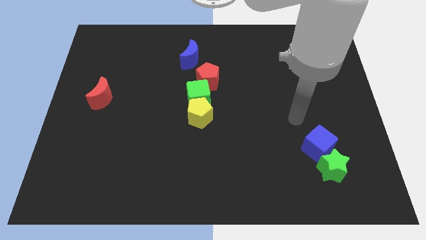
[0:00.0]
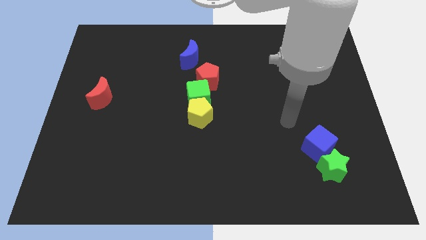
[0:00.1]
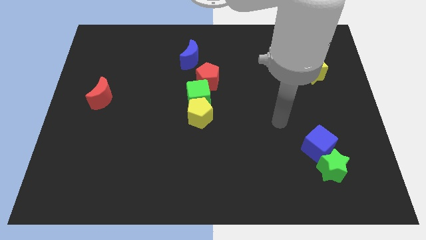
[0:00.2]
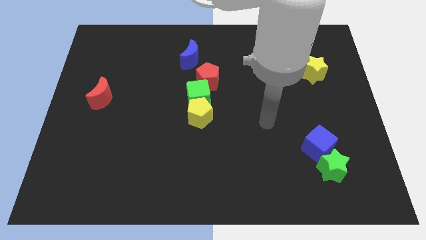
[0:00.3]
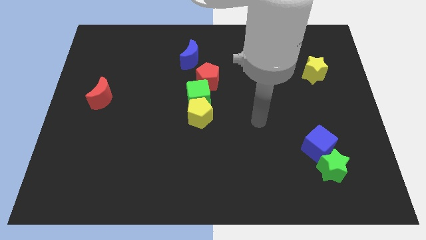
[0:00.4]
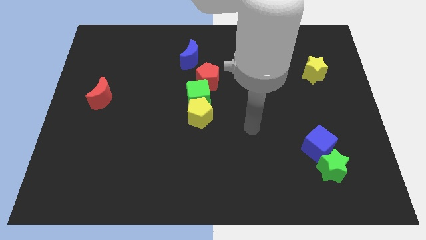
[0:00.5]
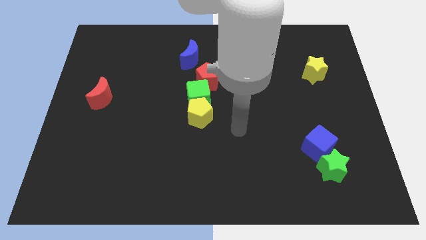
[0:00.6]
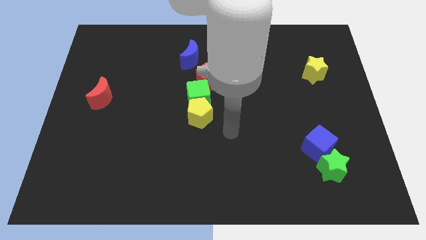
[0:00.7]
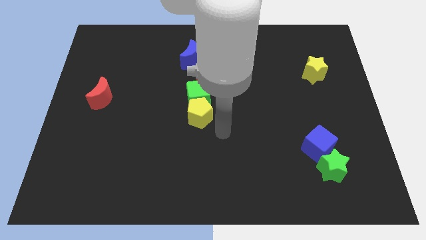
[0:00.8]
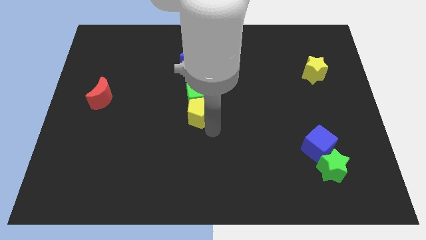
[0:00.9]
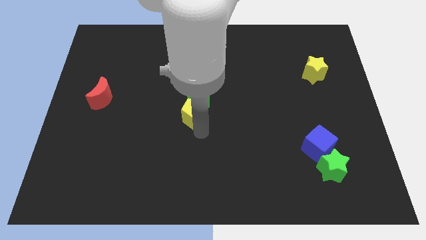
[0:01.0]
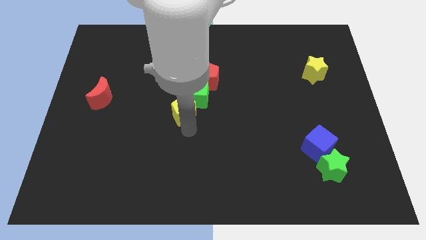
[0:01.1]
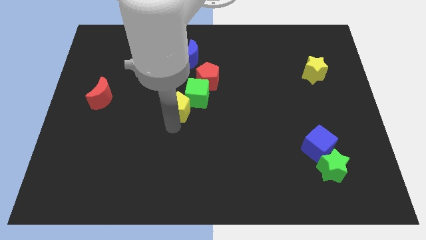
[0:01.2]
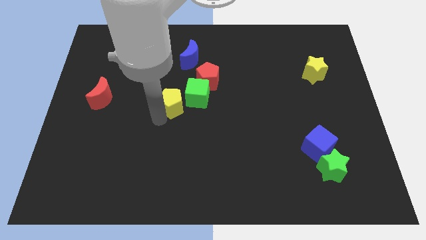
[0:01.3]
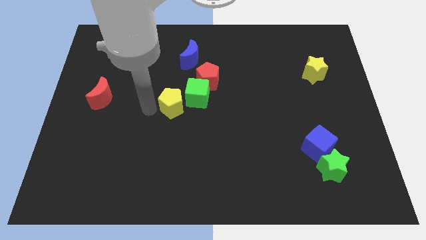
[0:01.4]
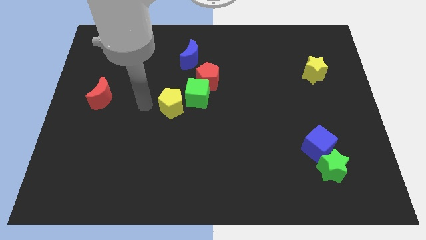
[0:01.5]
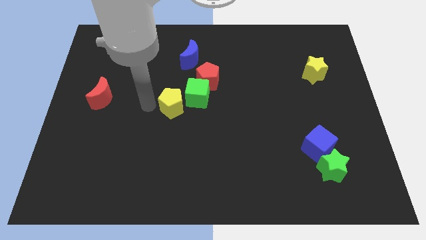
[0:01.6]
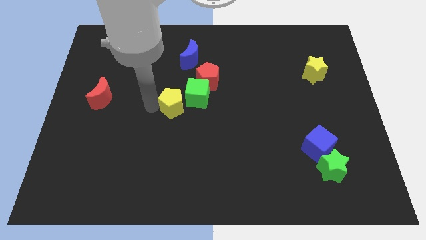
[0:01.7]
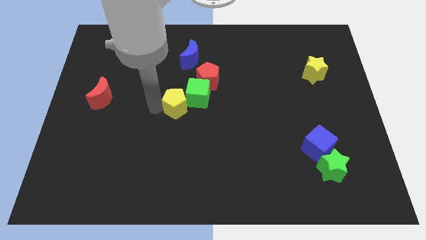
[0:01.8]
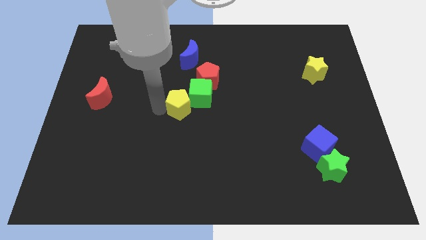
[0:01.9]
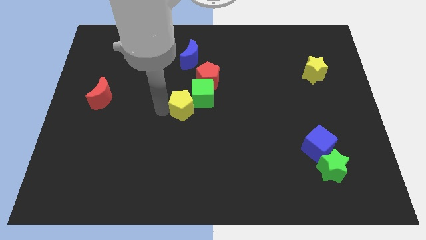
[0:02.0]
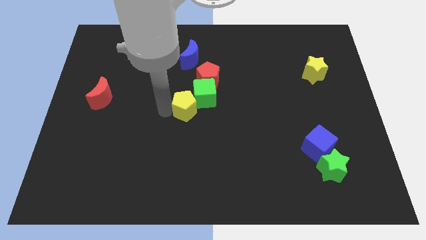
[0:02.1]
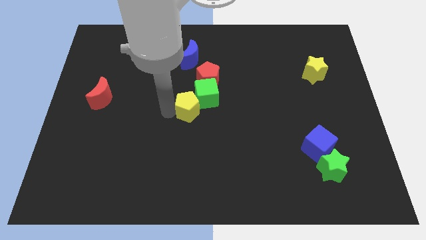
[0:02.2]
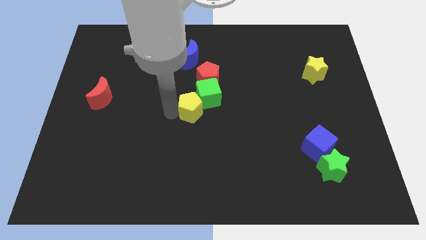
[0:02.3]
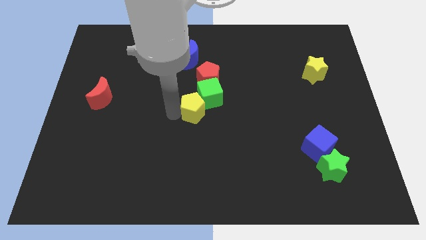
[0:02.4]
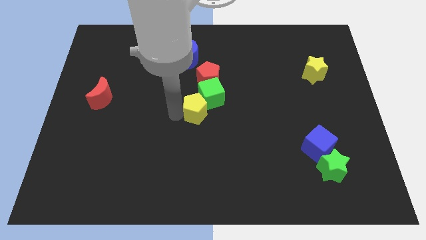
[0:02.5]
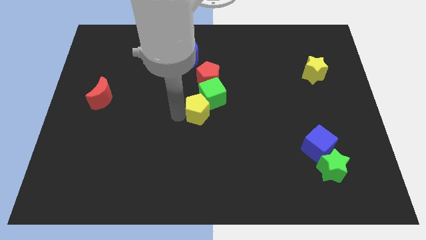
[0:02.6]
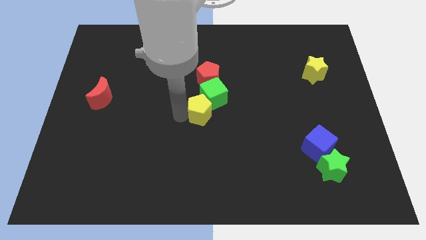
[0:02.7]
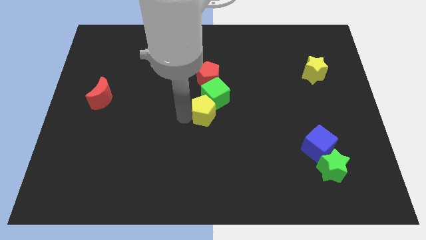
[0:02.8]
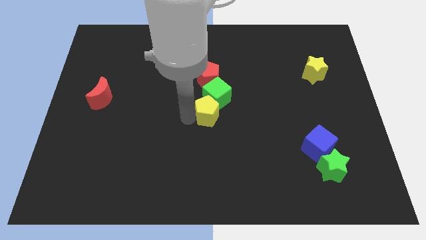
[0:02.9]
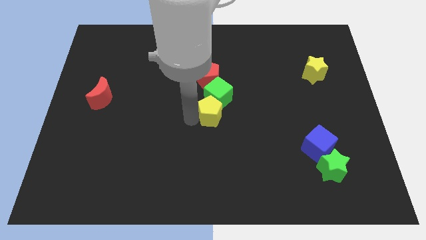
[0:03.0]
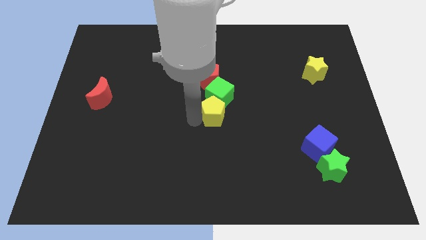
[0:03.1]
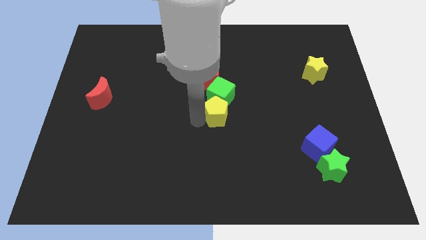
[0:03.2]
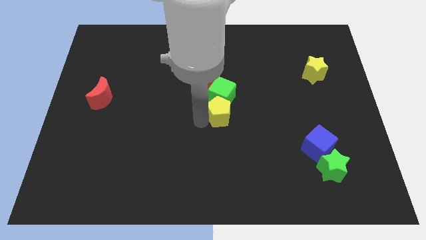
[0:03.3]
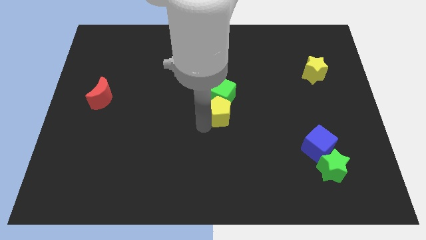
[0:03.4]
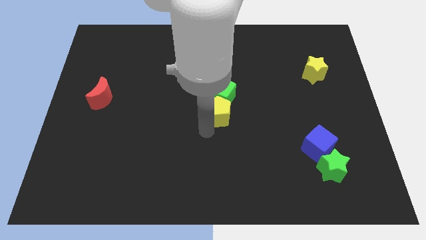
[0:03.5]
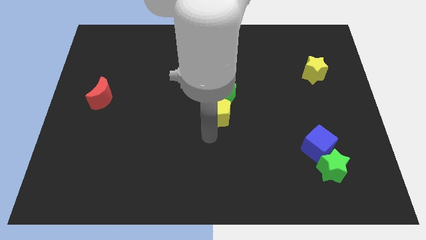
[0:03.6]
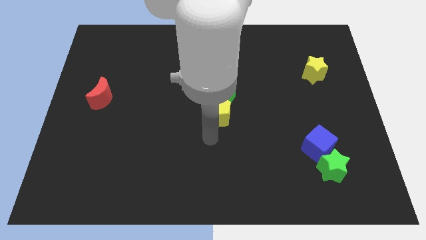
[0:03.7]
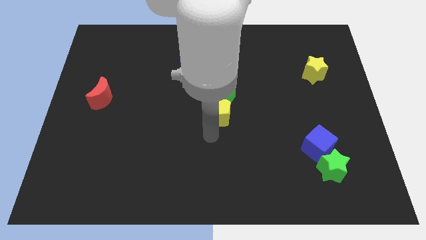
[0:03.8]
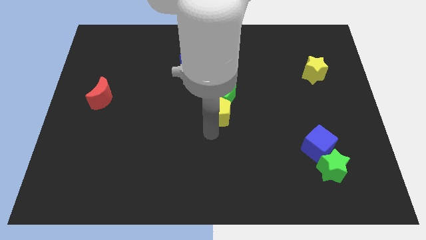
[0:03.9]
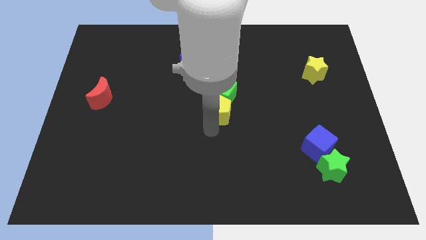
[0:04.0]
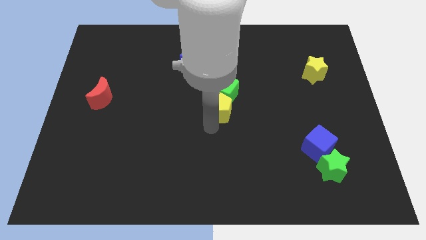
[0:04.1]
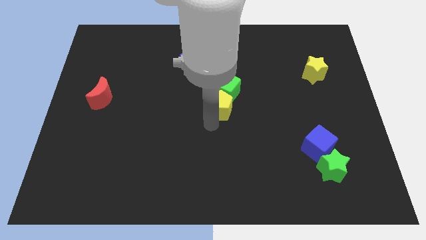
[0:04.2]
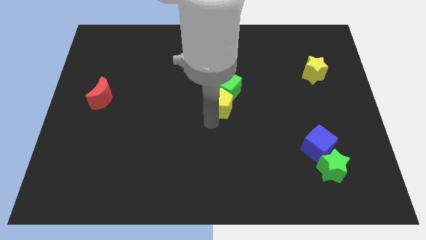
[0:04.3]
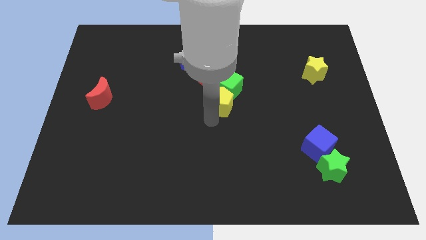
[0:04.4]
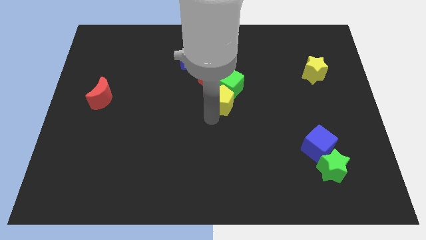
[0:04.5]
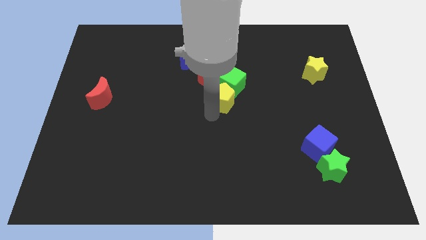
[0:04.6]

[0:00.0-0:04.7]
push the yellow pentagon a bit up and to the right

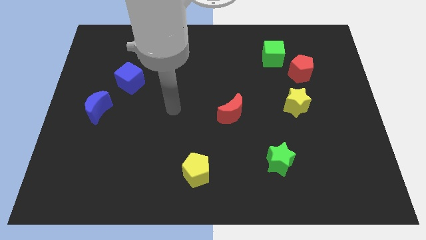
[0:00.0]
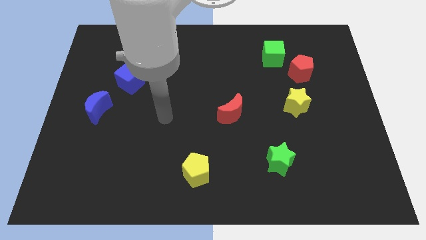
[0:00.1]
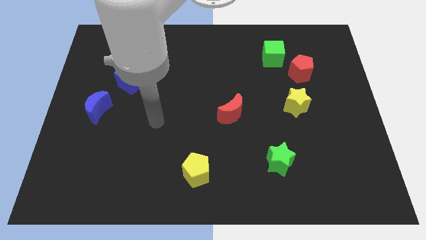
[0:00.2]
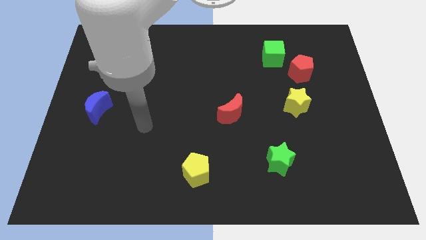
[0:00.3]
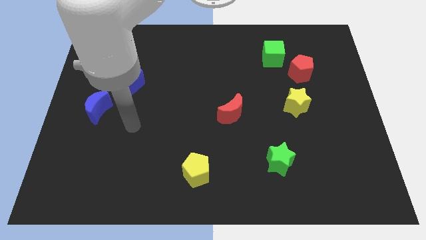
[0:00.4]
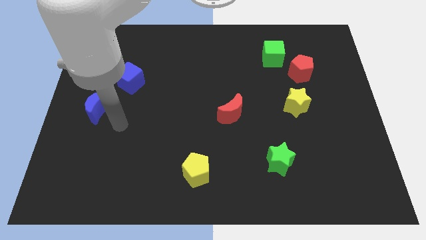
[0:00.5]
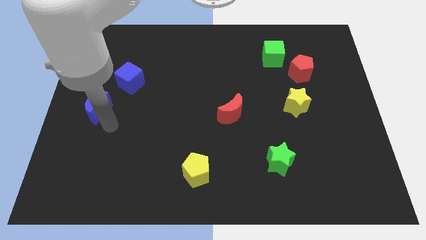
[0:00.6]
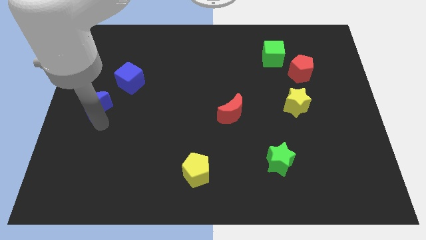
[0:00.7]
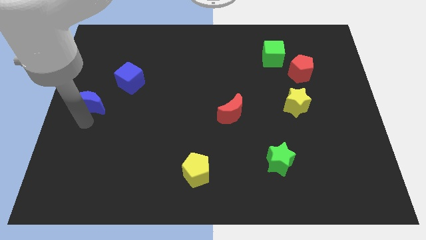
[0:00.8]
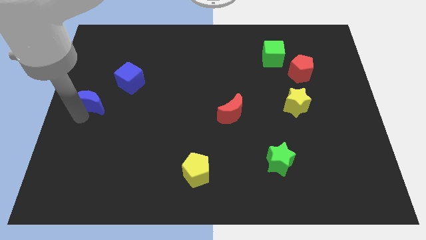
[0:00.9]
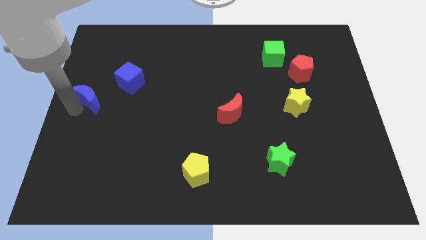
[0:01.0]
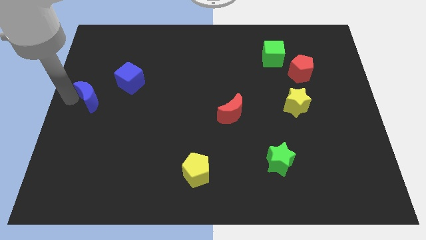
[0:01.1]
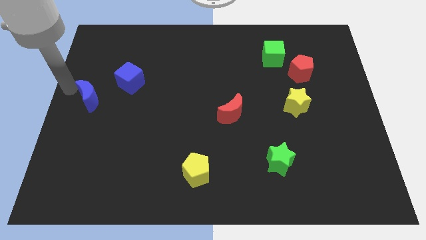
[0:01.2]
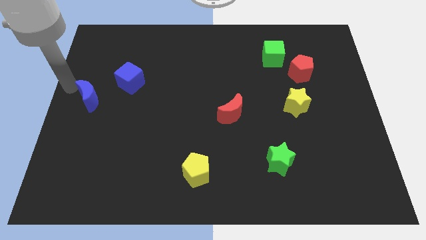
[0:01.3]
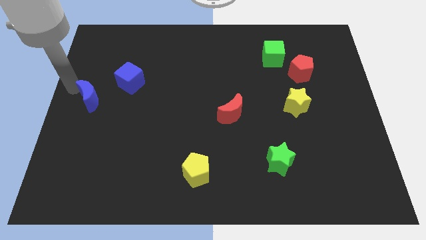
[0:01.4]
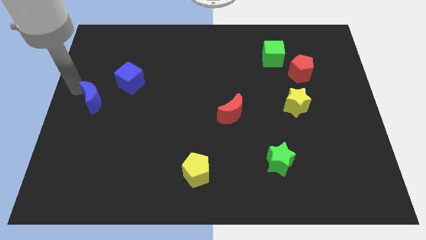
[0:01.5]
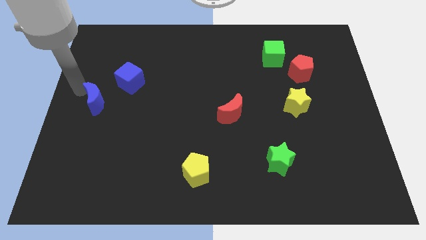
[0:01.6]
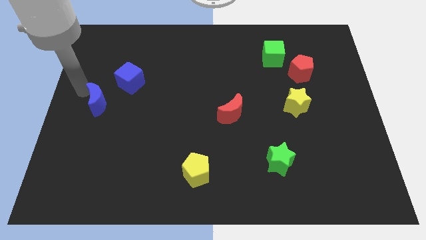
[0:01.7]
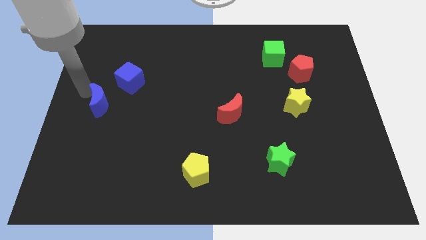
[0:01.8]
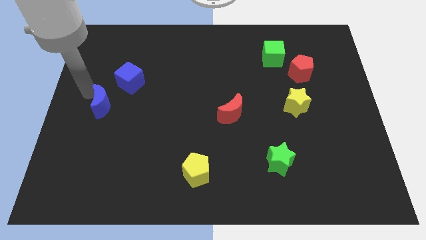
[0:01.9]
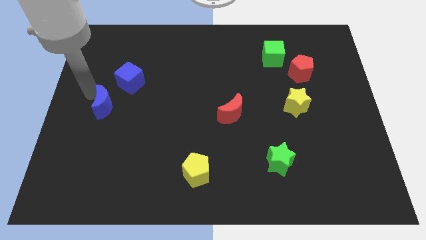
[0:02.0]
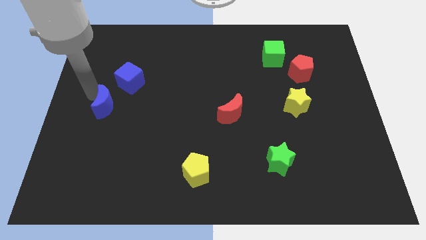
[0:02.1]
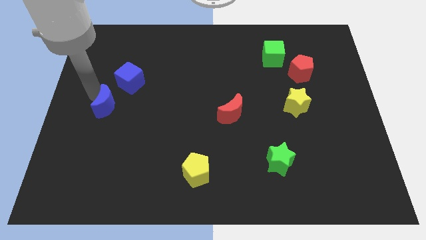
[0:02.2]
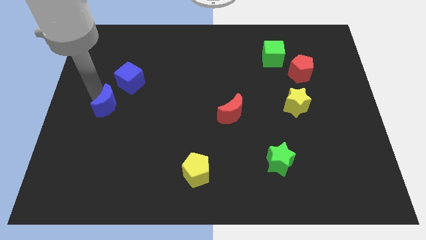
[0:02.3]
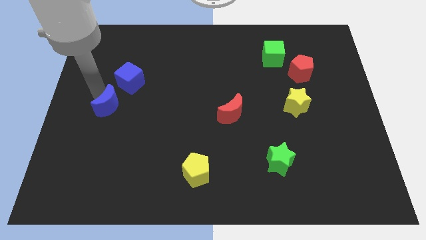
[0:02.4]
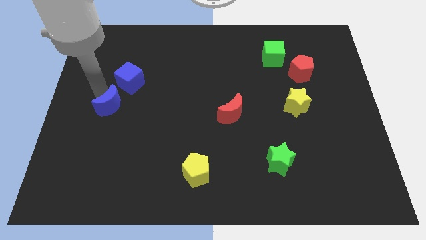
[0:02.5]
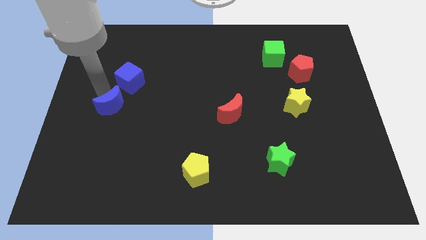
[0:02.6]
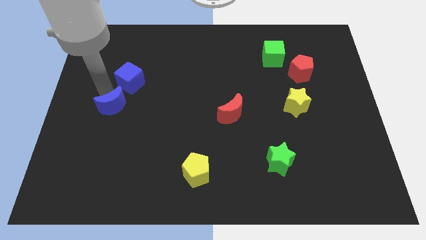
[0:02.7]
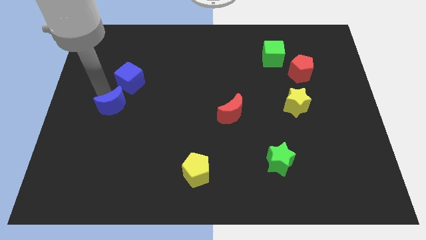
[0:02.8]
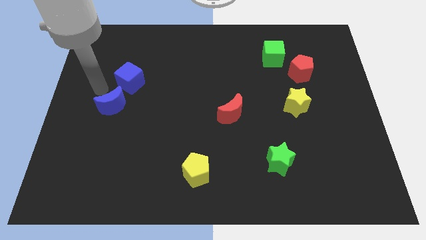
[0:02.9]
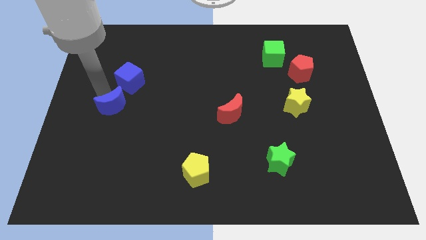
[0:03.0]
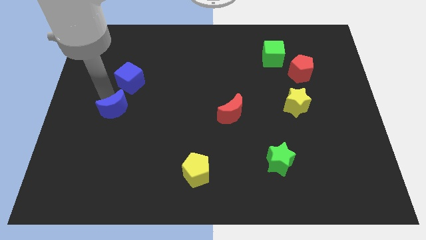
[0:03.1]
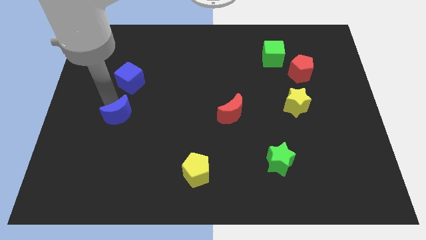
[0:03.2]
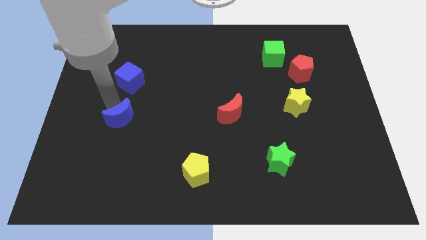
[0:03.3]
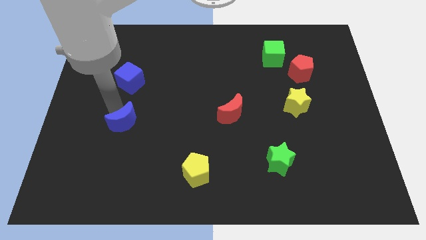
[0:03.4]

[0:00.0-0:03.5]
move the blue moon slightly diagonally down and to the right
